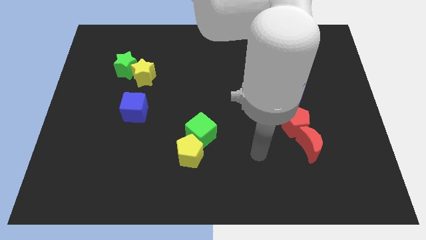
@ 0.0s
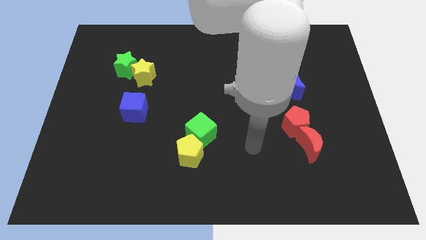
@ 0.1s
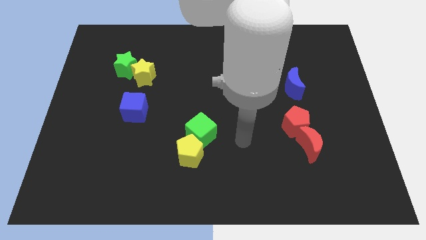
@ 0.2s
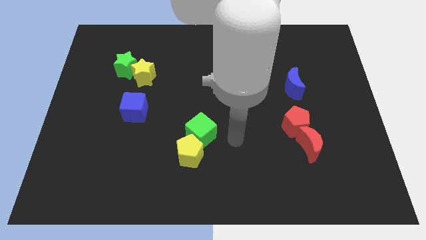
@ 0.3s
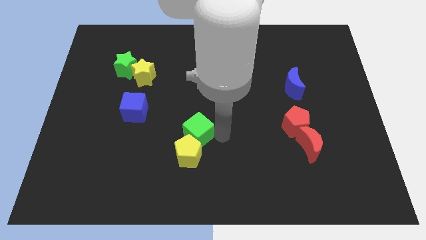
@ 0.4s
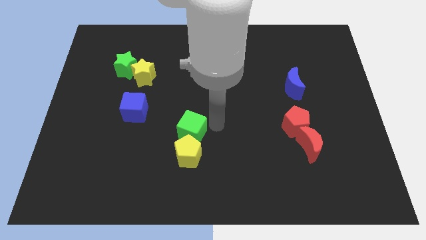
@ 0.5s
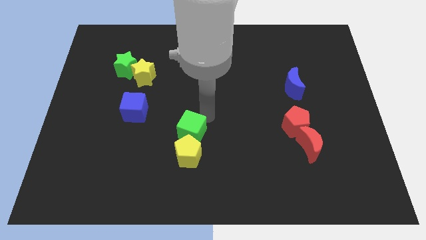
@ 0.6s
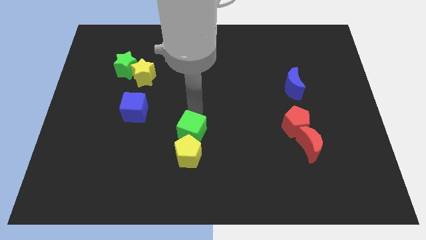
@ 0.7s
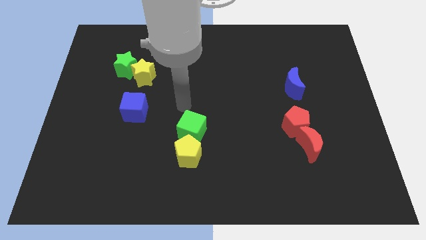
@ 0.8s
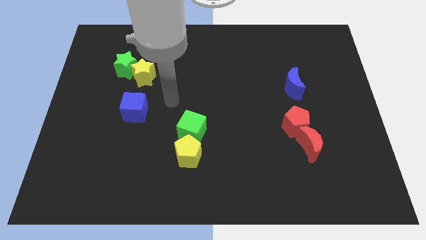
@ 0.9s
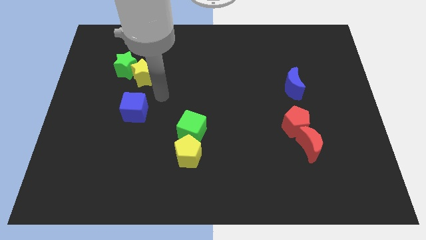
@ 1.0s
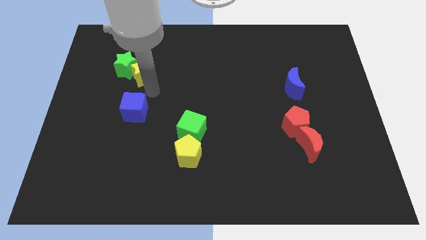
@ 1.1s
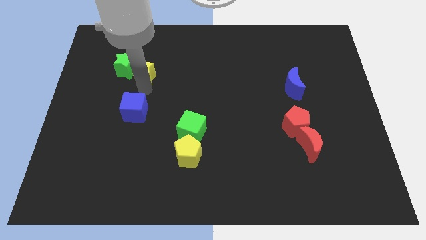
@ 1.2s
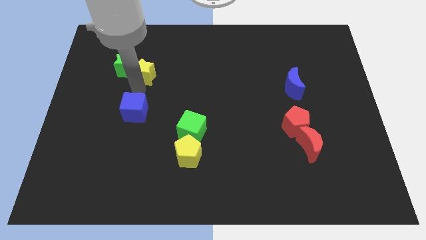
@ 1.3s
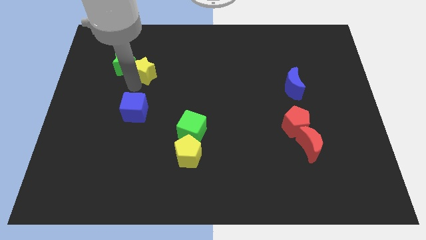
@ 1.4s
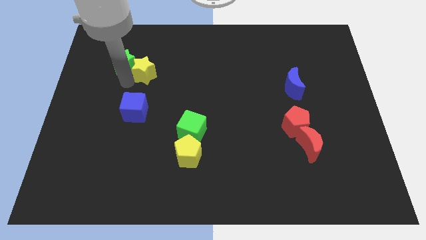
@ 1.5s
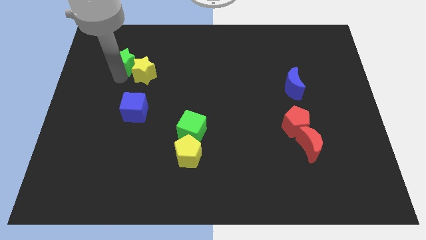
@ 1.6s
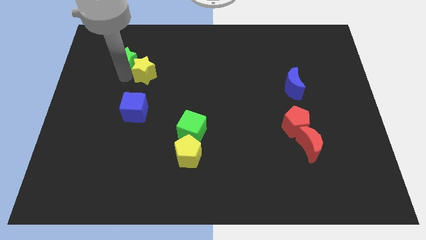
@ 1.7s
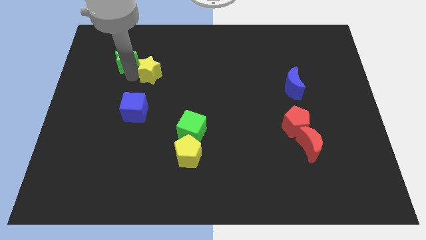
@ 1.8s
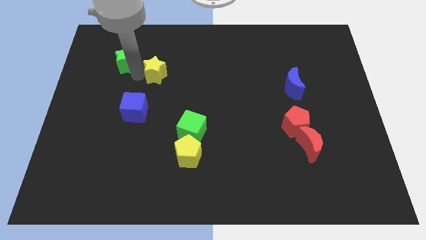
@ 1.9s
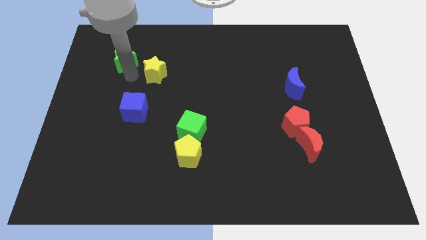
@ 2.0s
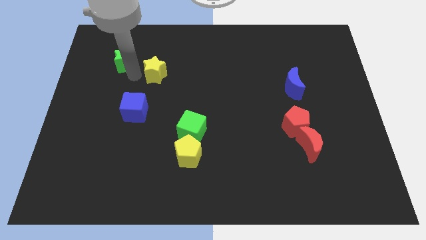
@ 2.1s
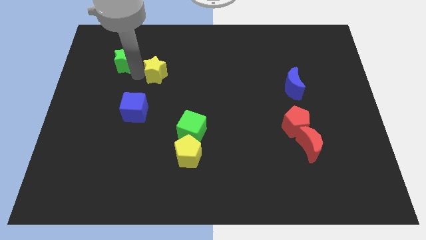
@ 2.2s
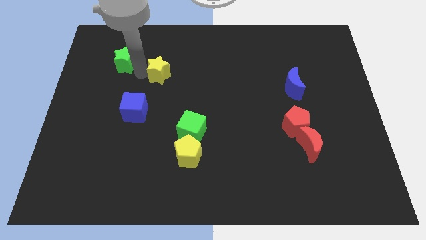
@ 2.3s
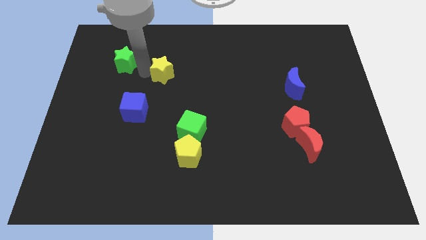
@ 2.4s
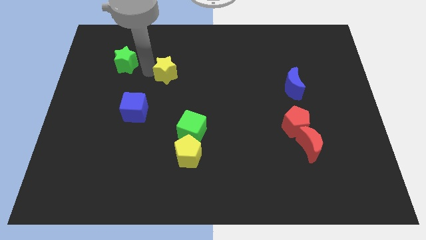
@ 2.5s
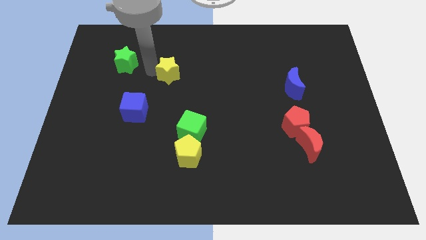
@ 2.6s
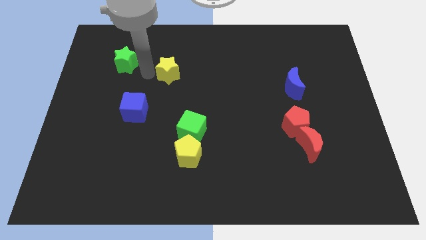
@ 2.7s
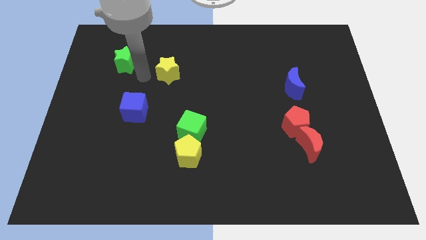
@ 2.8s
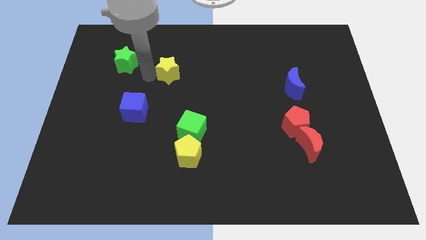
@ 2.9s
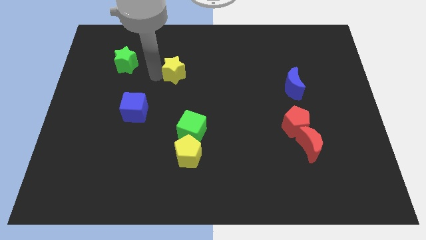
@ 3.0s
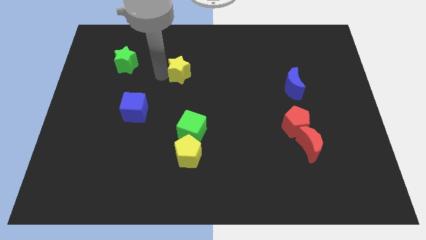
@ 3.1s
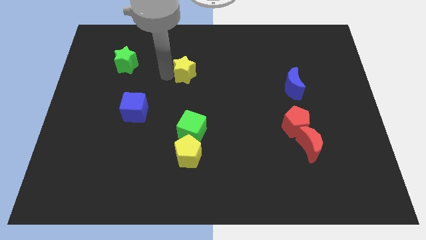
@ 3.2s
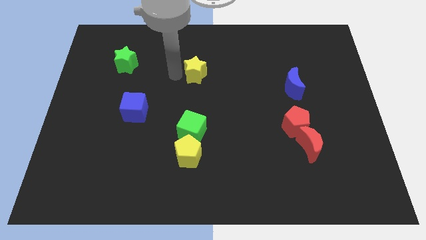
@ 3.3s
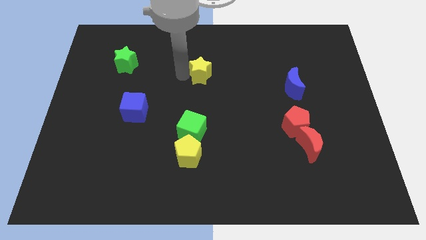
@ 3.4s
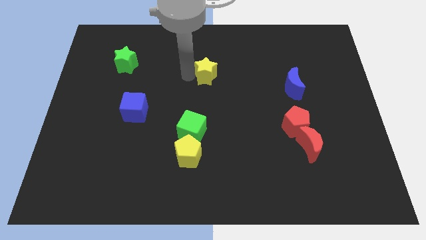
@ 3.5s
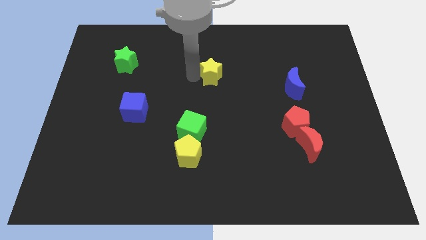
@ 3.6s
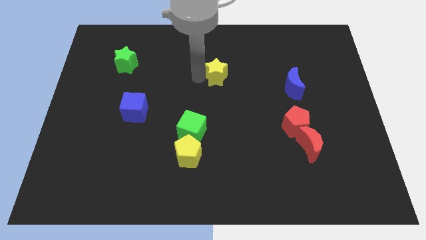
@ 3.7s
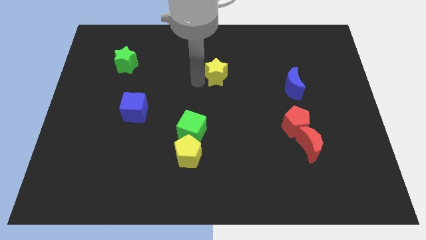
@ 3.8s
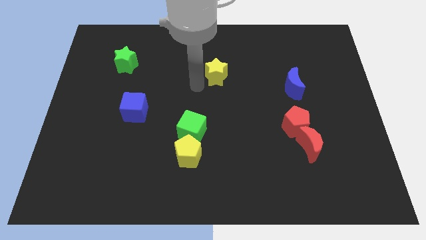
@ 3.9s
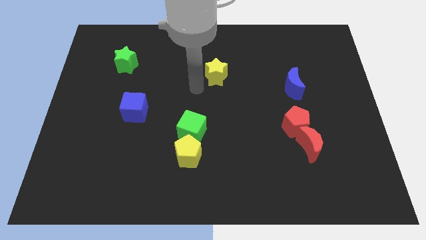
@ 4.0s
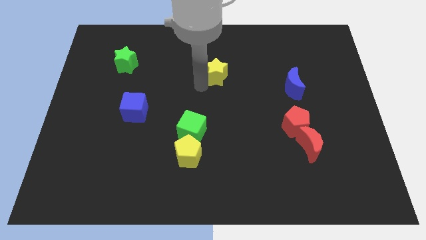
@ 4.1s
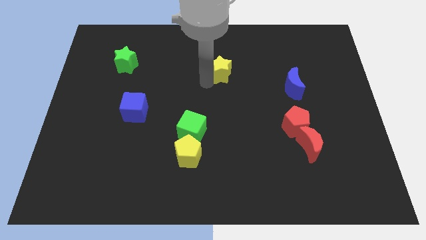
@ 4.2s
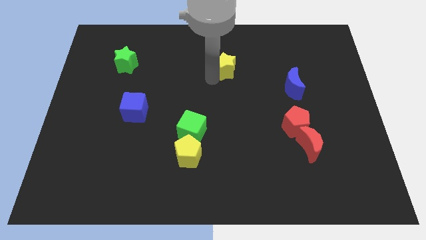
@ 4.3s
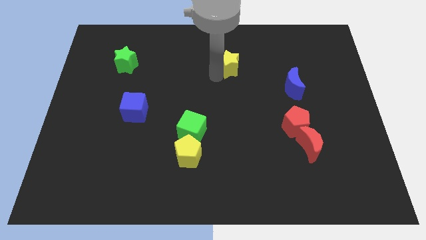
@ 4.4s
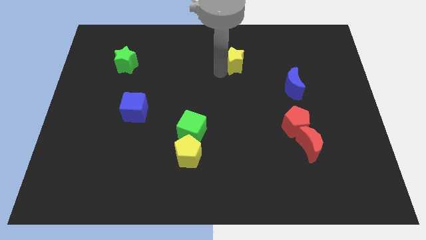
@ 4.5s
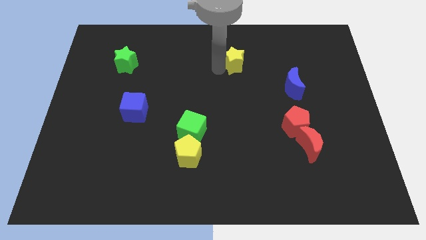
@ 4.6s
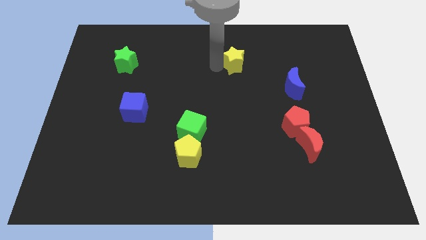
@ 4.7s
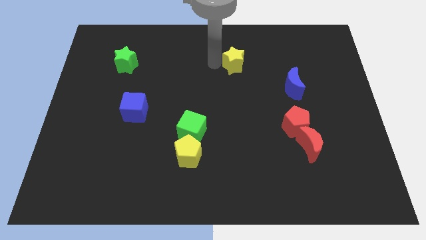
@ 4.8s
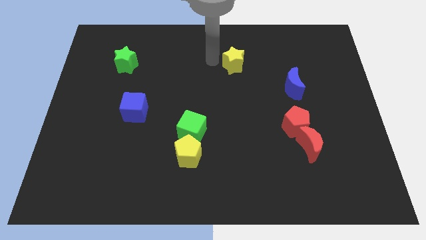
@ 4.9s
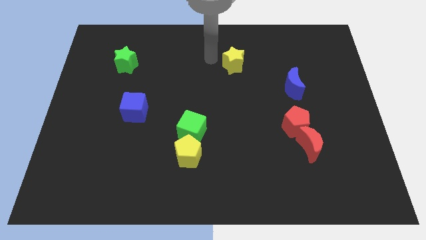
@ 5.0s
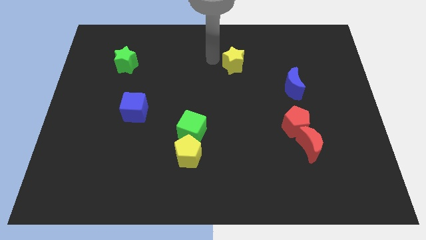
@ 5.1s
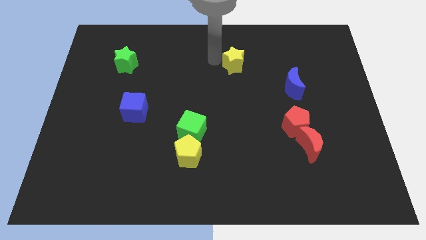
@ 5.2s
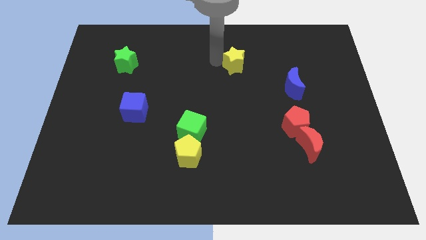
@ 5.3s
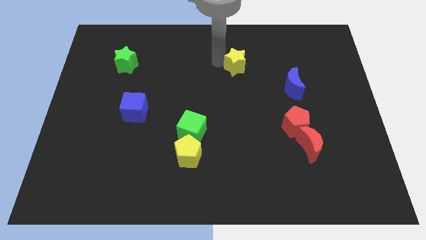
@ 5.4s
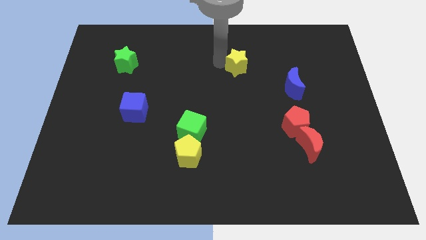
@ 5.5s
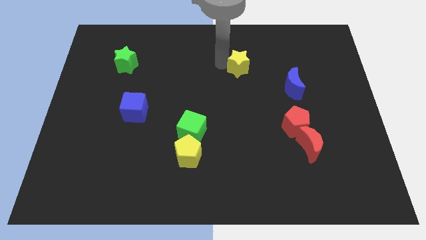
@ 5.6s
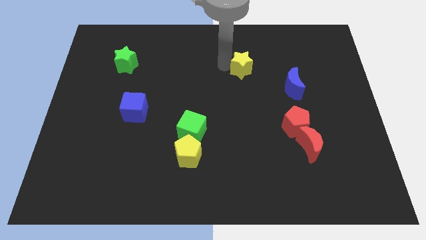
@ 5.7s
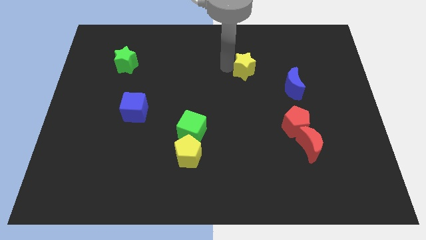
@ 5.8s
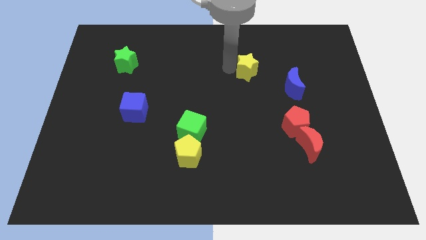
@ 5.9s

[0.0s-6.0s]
put the yellow star diagonally up and to the left of the blue moon
